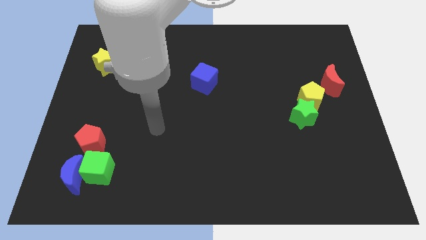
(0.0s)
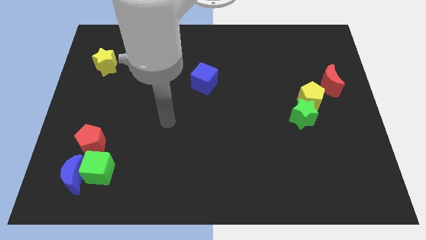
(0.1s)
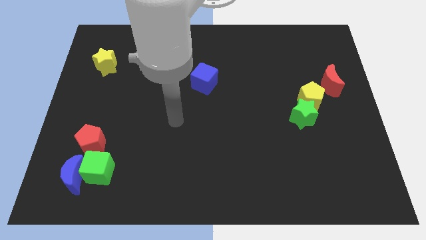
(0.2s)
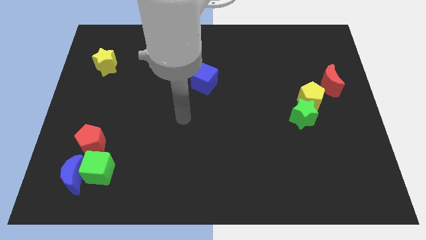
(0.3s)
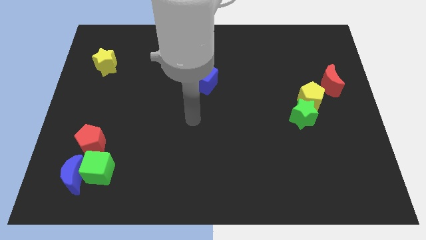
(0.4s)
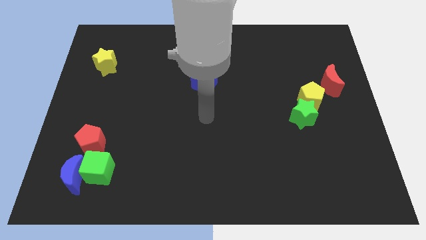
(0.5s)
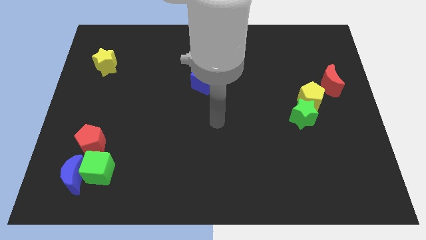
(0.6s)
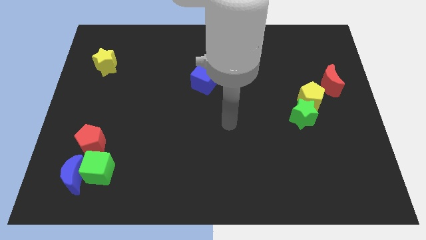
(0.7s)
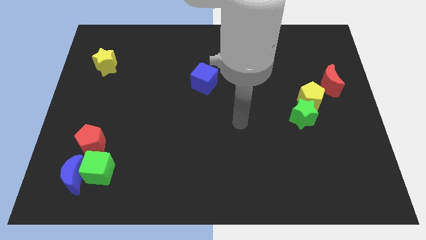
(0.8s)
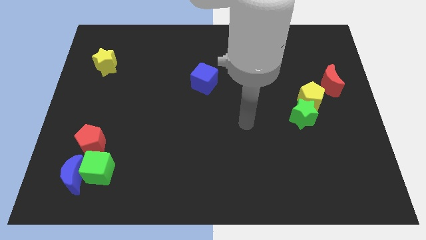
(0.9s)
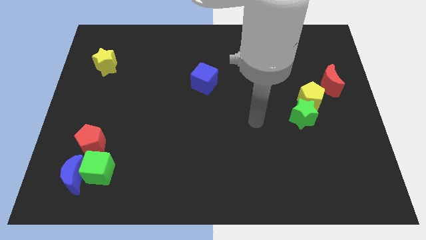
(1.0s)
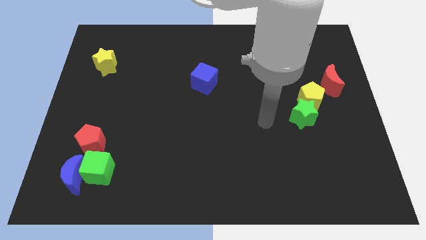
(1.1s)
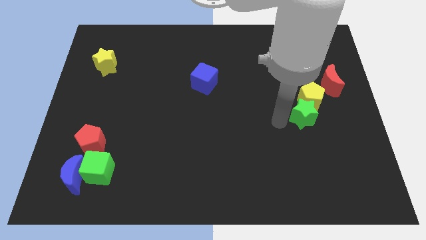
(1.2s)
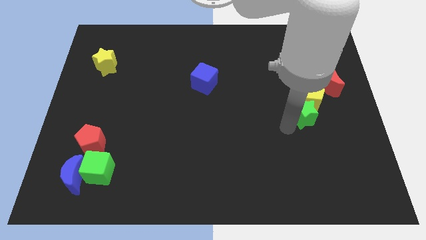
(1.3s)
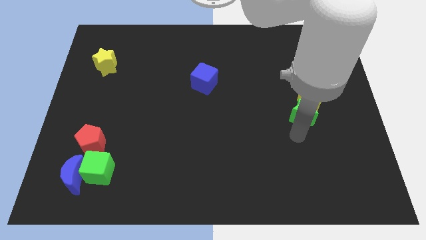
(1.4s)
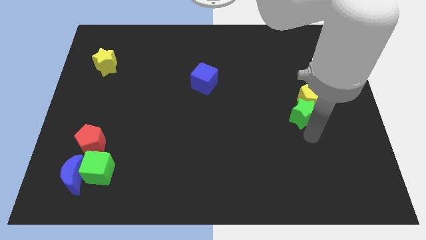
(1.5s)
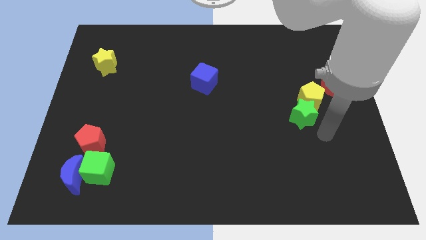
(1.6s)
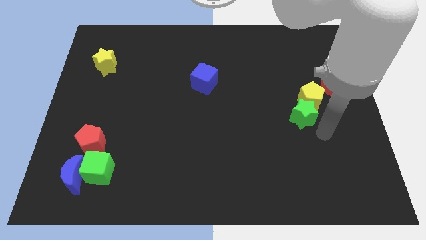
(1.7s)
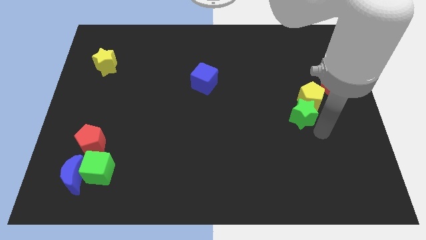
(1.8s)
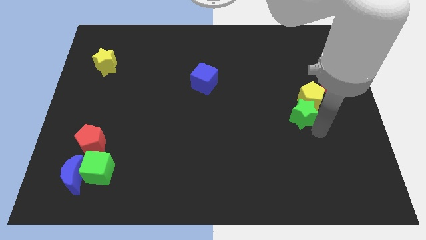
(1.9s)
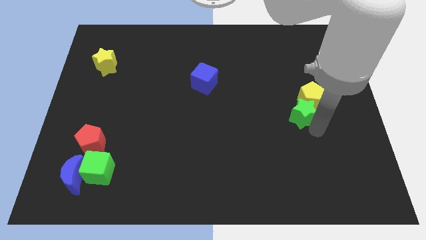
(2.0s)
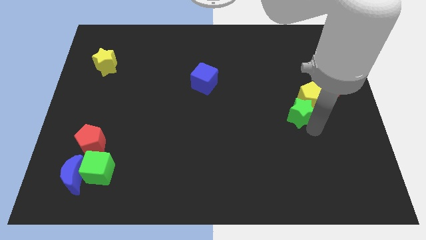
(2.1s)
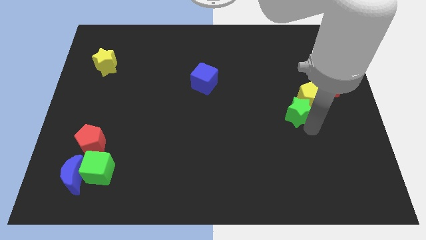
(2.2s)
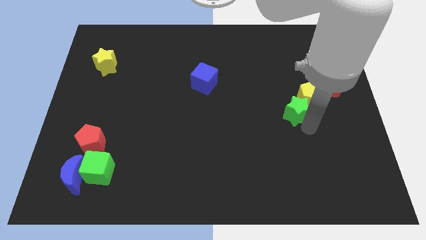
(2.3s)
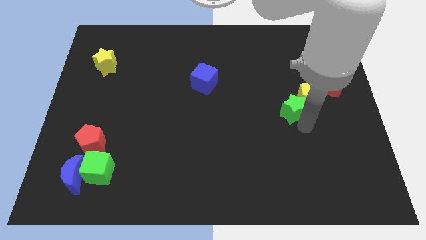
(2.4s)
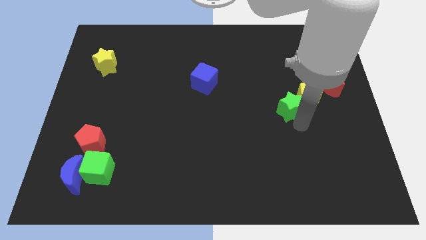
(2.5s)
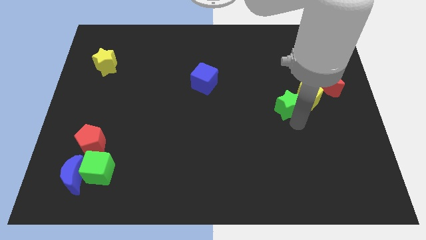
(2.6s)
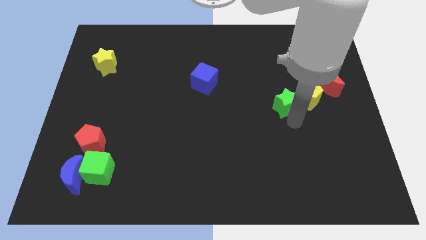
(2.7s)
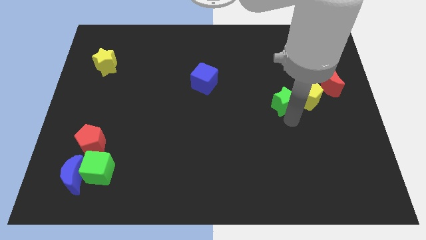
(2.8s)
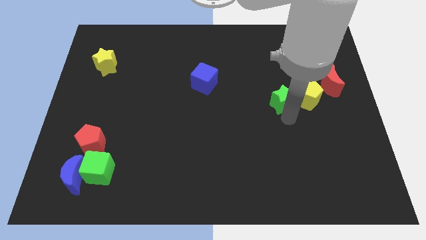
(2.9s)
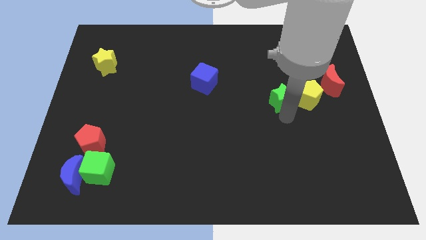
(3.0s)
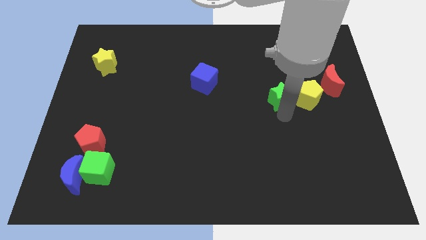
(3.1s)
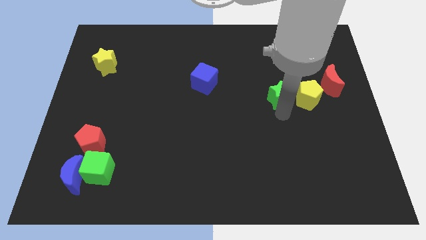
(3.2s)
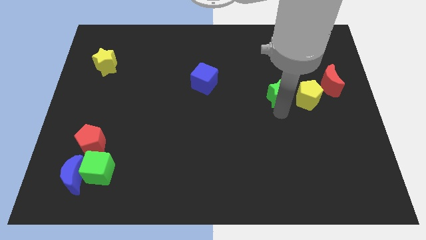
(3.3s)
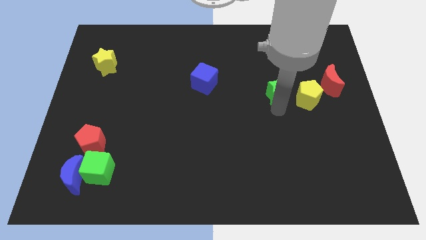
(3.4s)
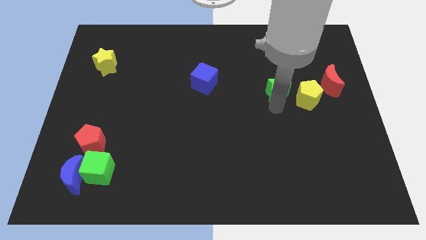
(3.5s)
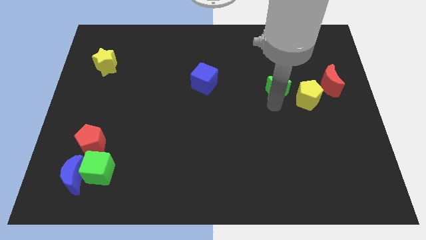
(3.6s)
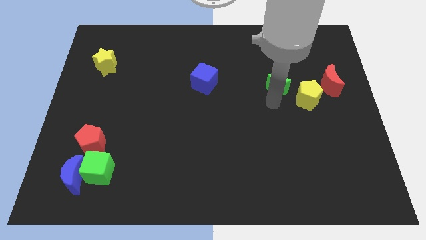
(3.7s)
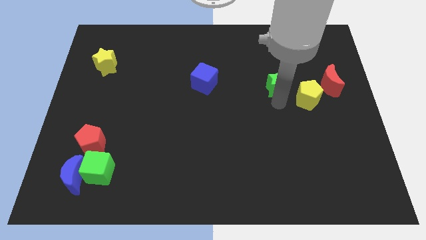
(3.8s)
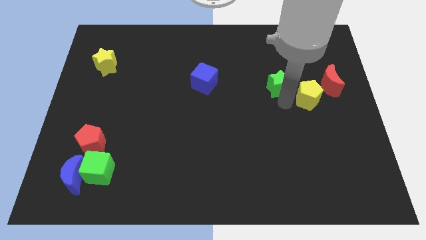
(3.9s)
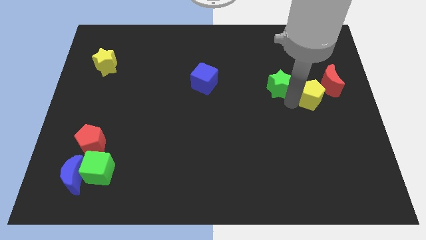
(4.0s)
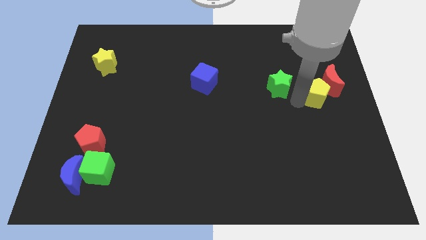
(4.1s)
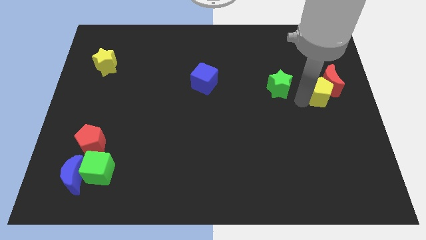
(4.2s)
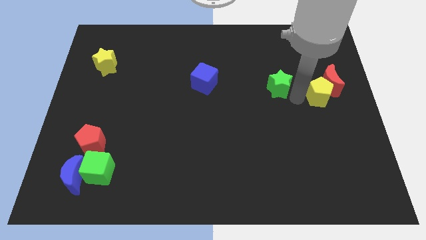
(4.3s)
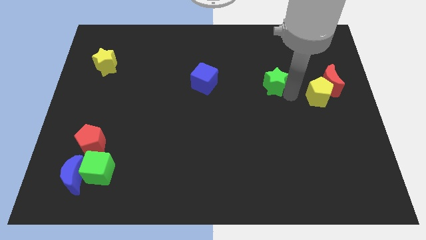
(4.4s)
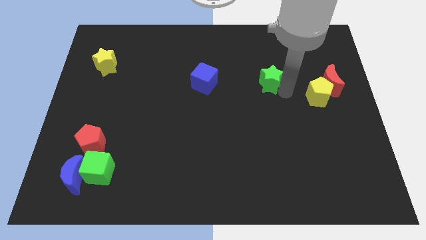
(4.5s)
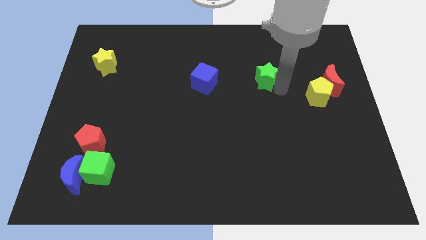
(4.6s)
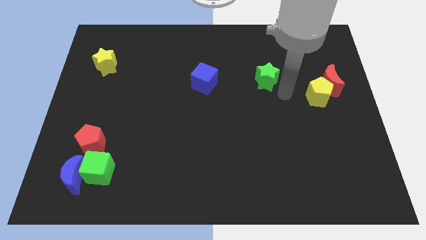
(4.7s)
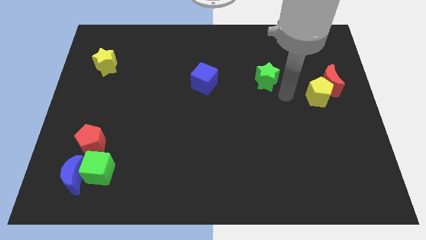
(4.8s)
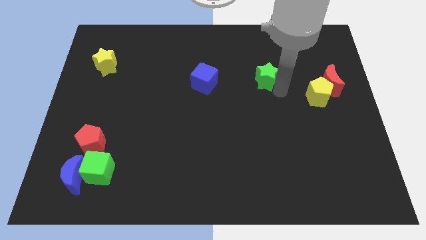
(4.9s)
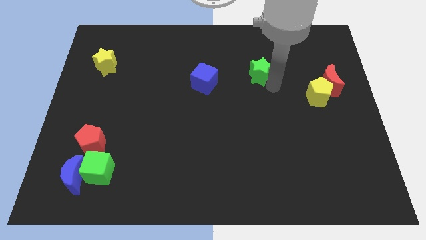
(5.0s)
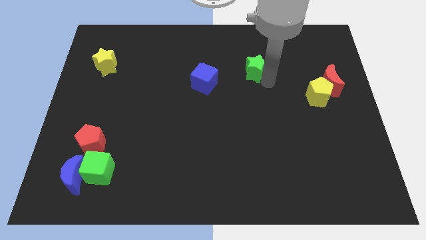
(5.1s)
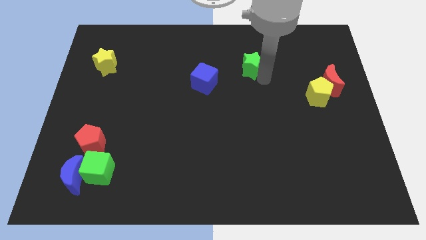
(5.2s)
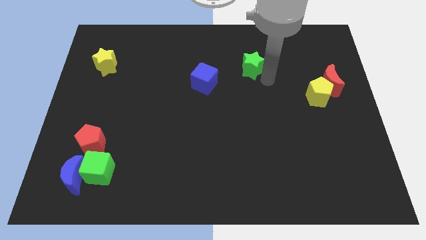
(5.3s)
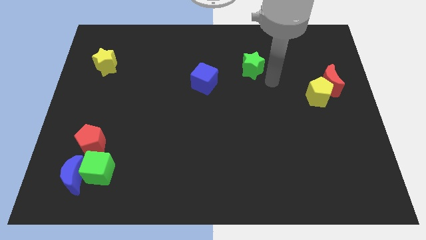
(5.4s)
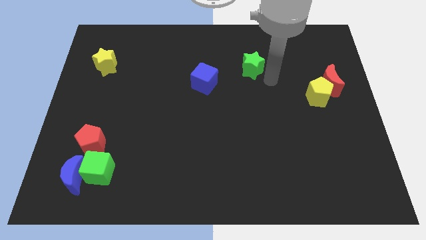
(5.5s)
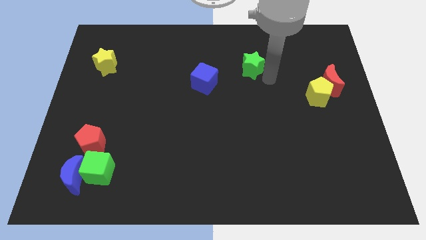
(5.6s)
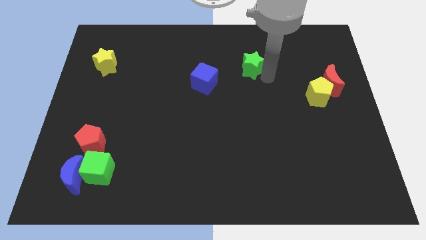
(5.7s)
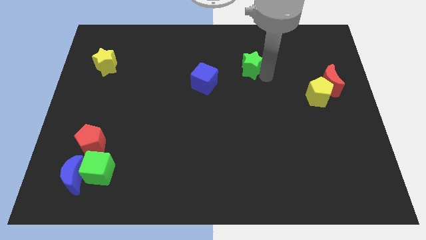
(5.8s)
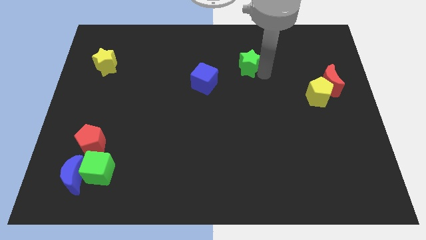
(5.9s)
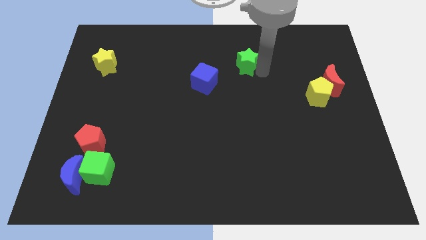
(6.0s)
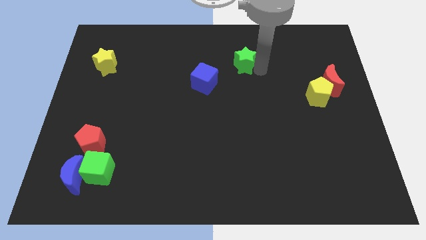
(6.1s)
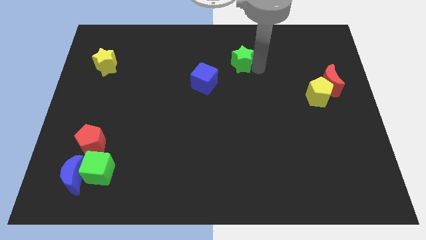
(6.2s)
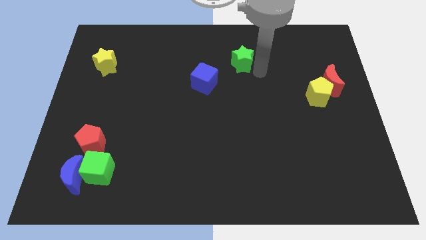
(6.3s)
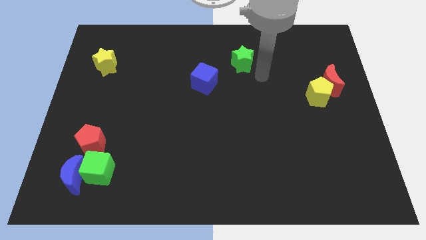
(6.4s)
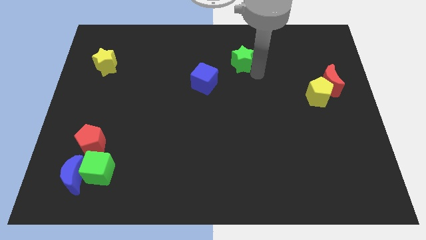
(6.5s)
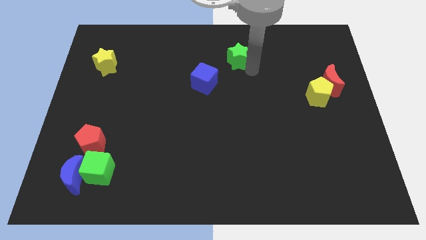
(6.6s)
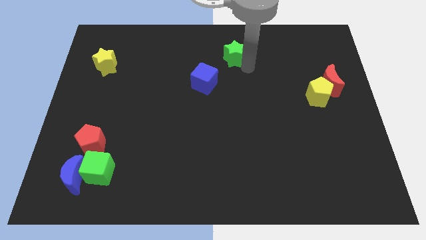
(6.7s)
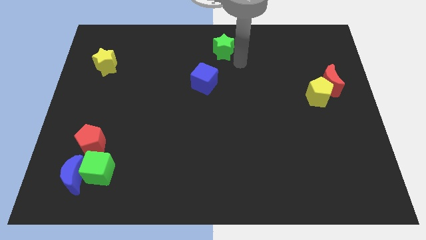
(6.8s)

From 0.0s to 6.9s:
put the green star to the towards your base
